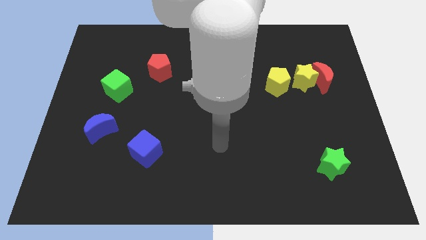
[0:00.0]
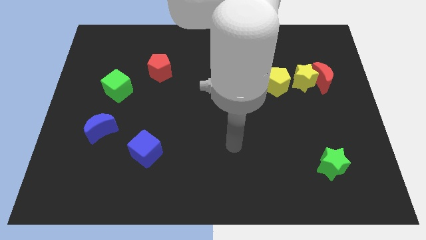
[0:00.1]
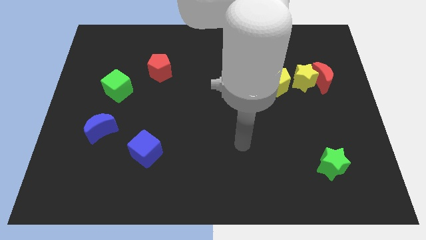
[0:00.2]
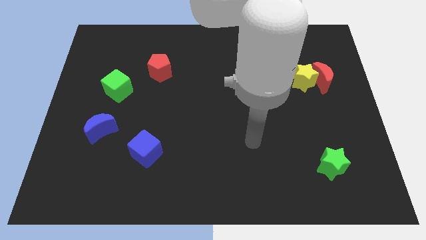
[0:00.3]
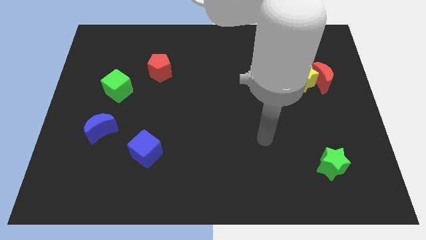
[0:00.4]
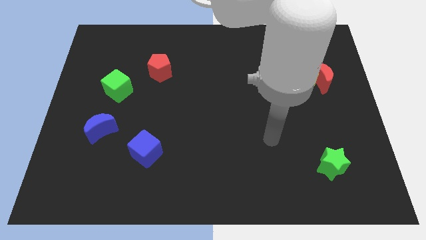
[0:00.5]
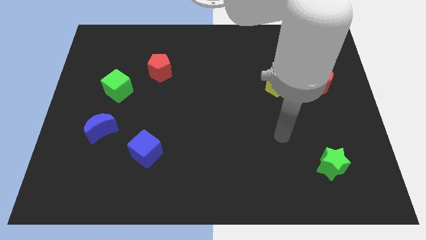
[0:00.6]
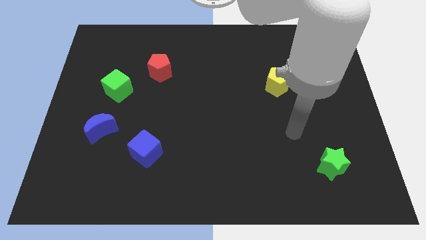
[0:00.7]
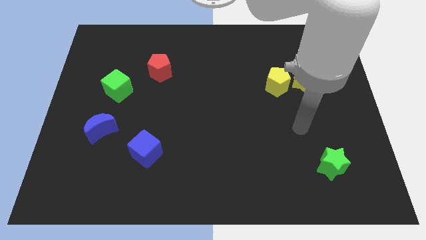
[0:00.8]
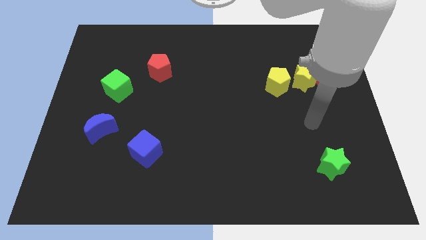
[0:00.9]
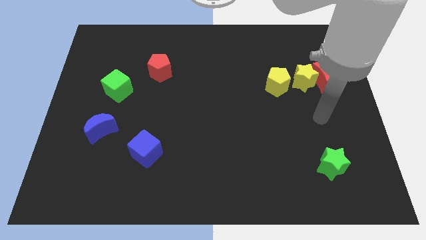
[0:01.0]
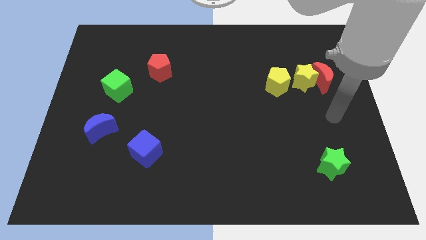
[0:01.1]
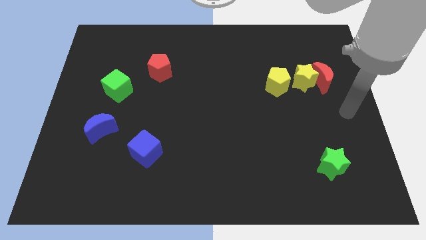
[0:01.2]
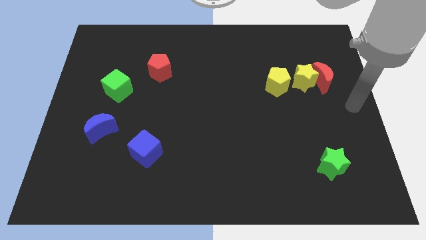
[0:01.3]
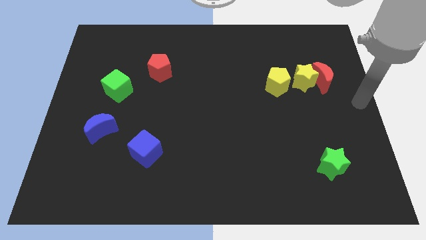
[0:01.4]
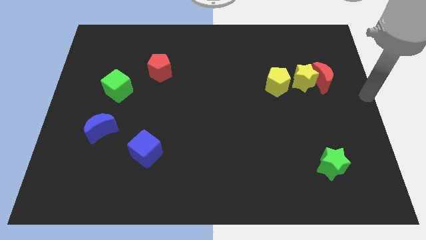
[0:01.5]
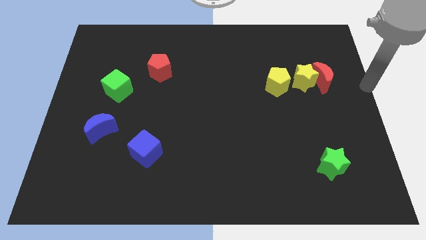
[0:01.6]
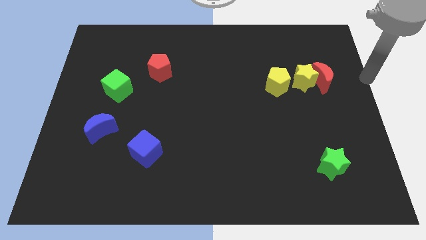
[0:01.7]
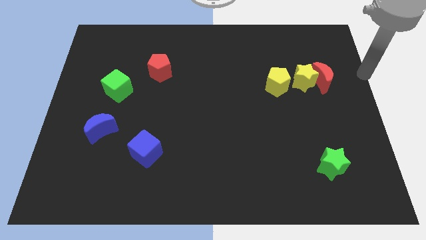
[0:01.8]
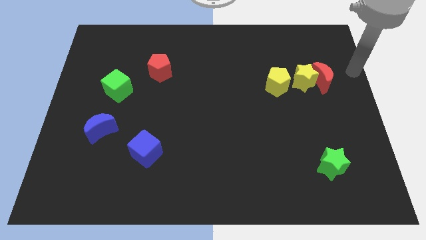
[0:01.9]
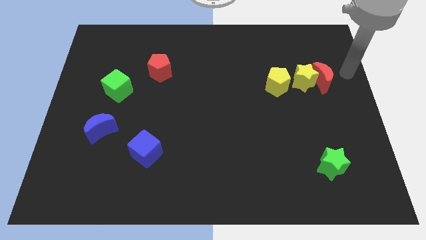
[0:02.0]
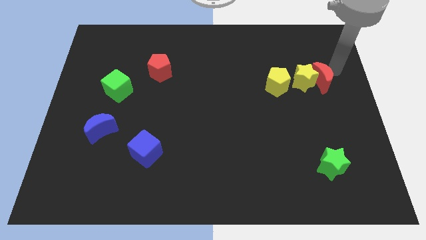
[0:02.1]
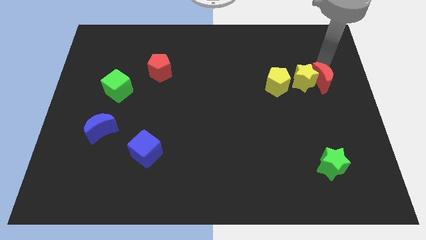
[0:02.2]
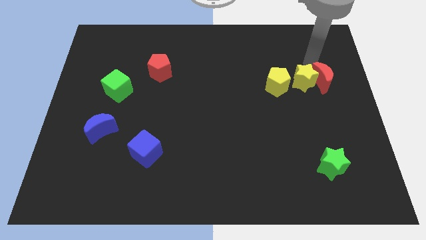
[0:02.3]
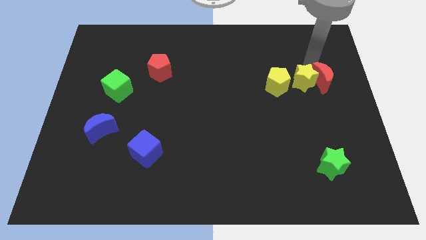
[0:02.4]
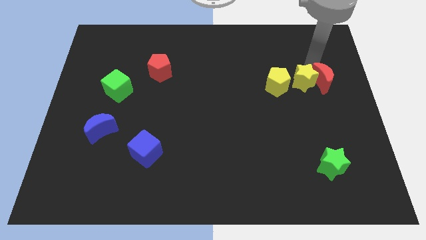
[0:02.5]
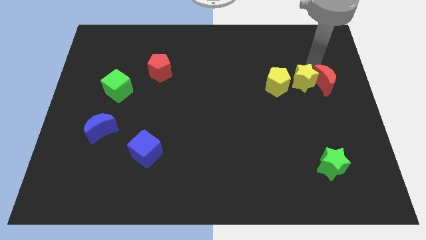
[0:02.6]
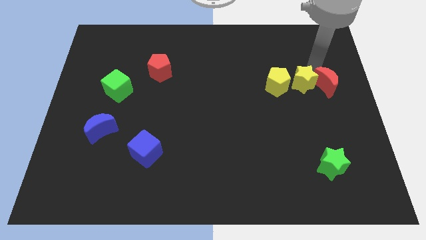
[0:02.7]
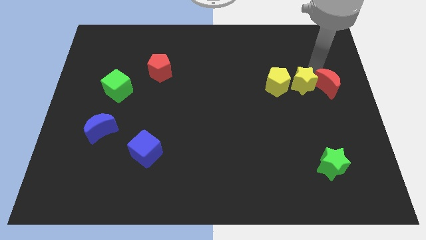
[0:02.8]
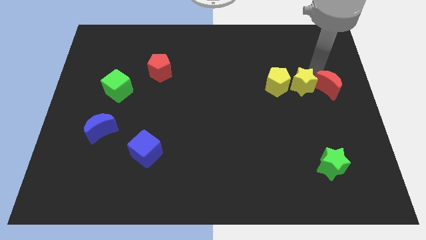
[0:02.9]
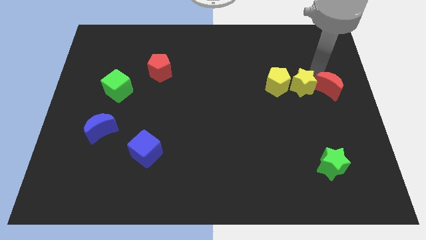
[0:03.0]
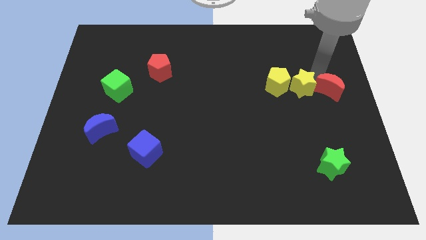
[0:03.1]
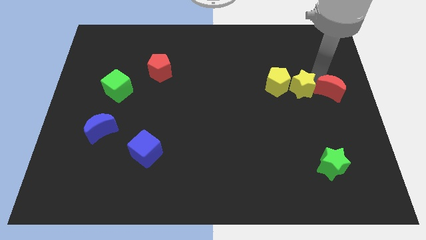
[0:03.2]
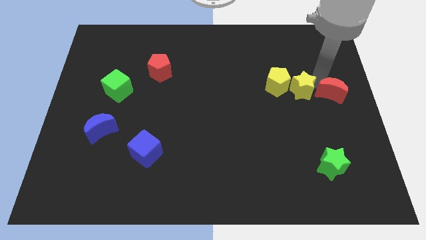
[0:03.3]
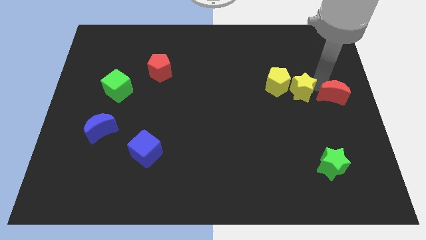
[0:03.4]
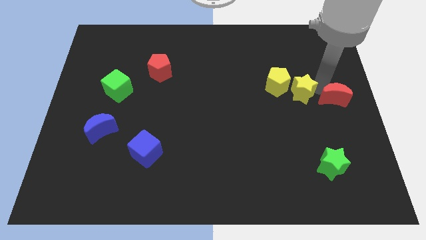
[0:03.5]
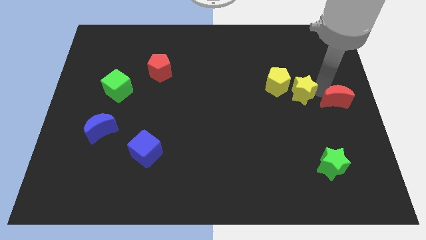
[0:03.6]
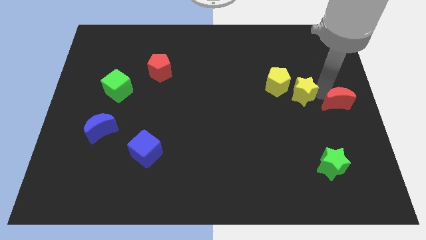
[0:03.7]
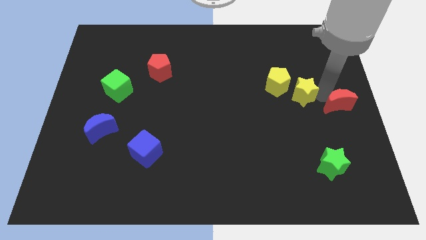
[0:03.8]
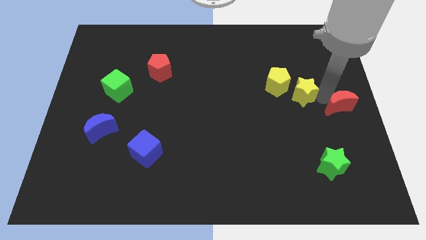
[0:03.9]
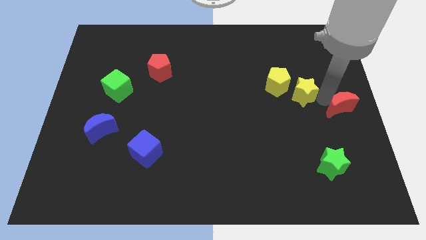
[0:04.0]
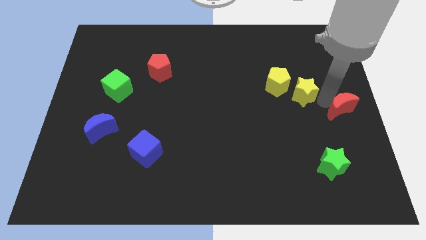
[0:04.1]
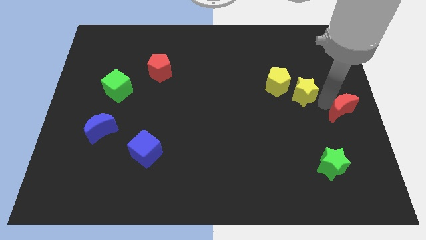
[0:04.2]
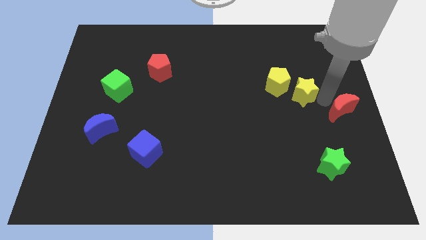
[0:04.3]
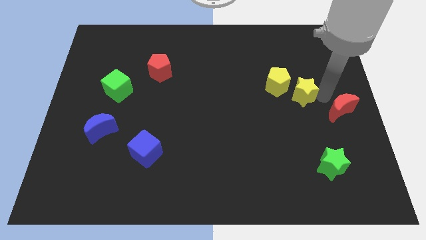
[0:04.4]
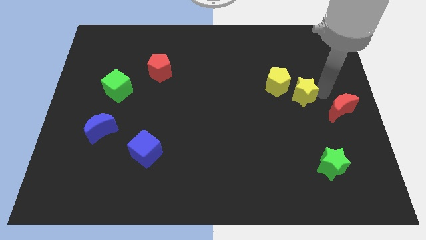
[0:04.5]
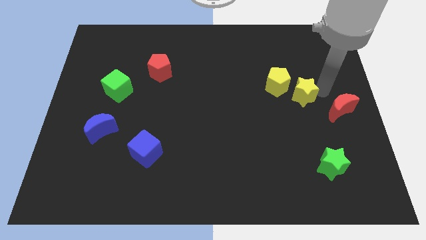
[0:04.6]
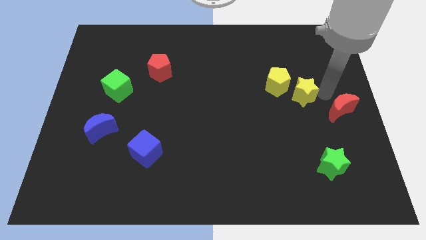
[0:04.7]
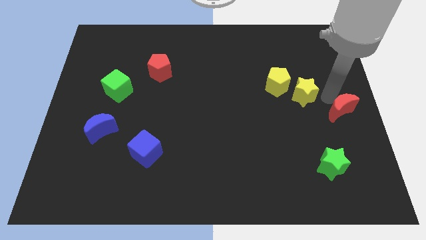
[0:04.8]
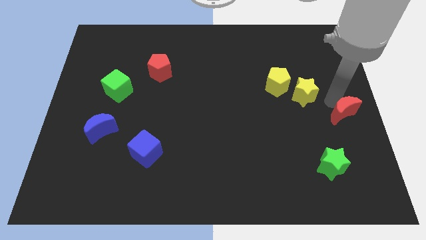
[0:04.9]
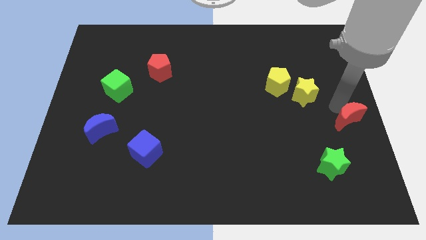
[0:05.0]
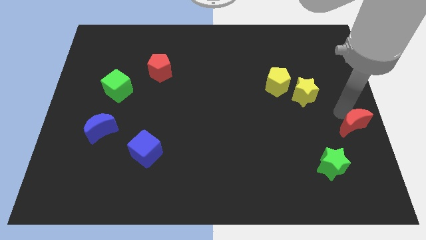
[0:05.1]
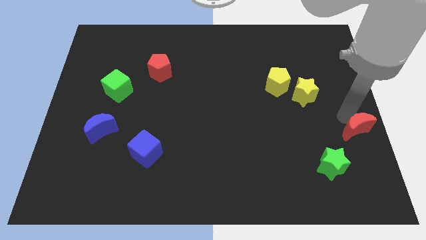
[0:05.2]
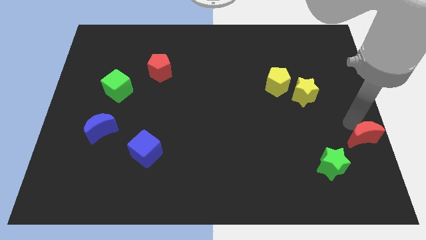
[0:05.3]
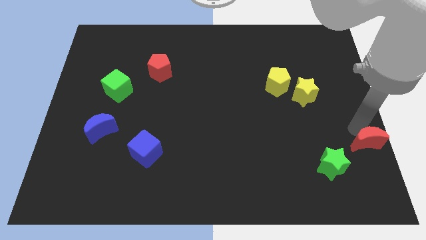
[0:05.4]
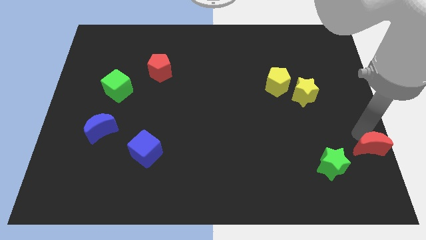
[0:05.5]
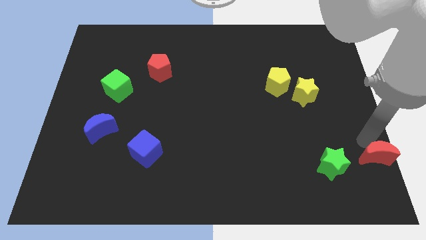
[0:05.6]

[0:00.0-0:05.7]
slide the red moon to the bottom right of the board

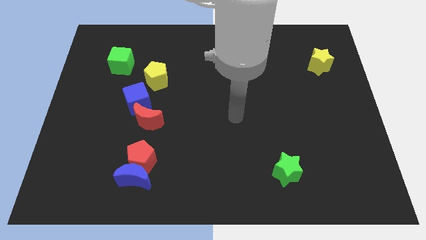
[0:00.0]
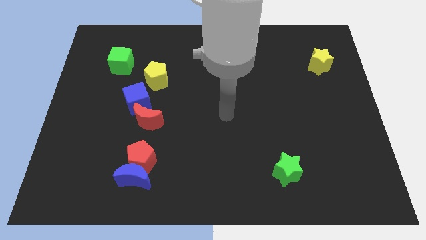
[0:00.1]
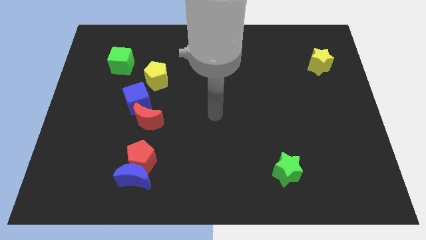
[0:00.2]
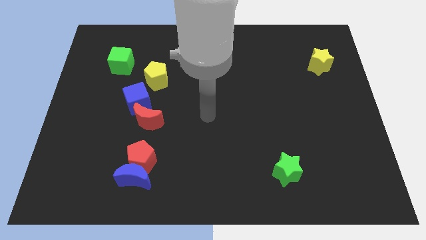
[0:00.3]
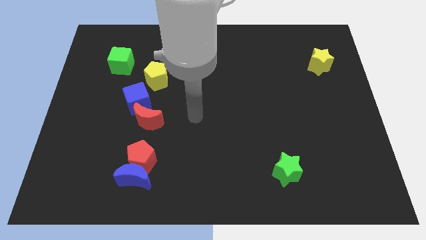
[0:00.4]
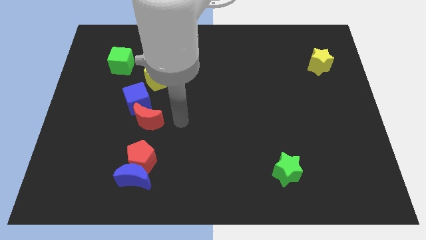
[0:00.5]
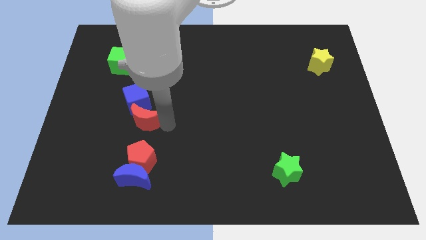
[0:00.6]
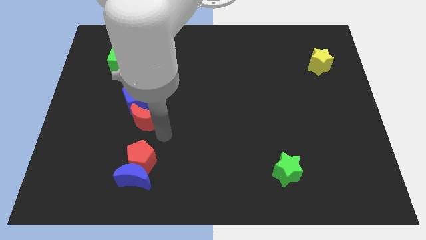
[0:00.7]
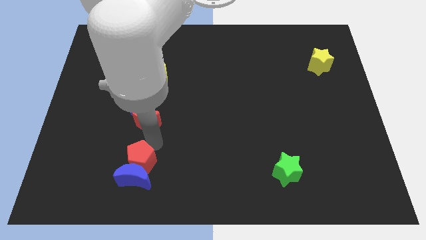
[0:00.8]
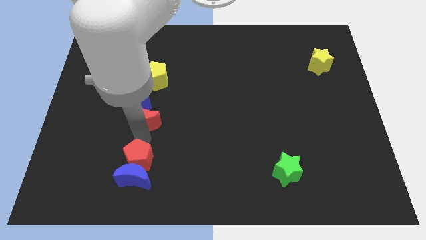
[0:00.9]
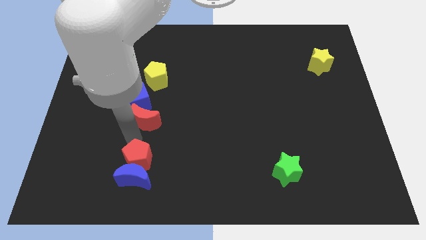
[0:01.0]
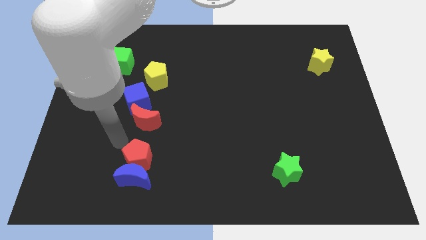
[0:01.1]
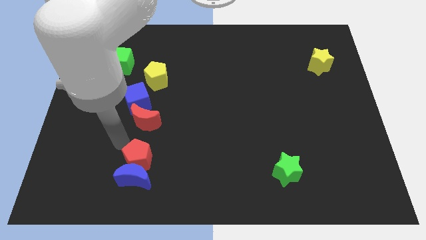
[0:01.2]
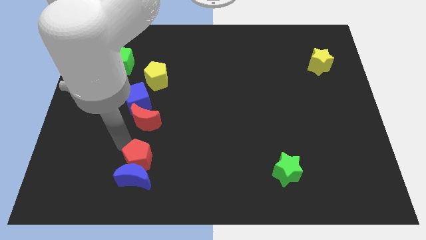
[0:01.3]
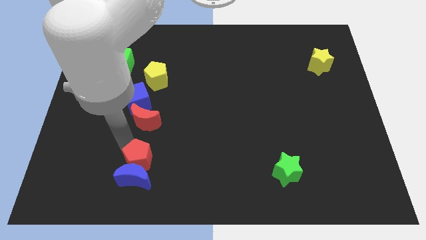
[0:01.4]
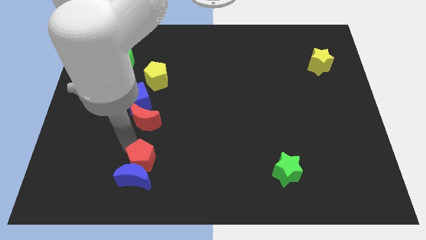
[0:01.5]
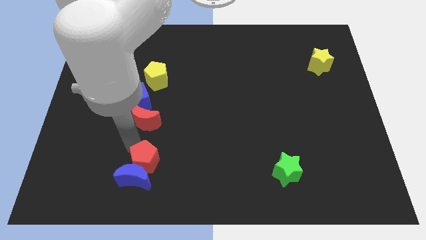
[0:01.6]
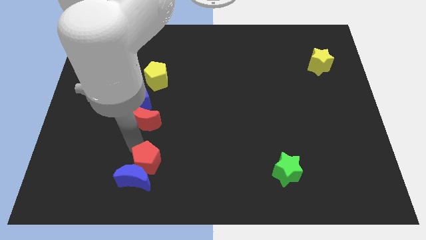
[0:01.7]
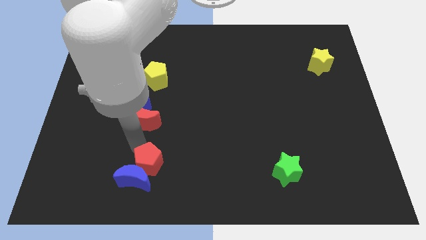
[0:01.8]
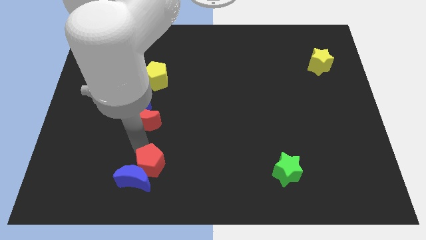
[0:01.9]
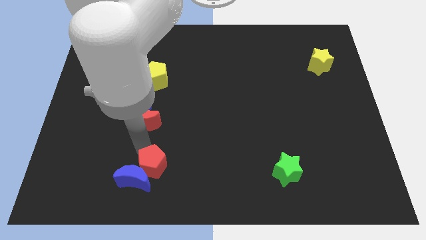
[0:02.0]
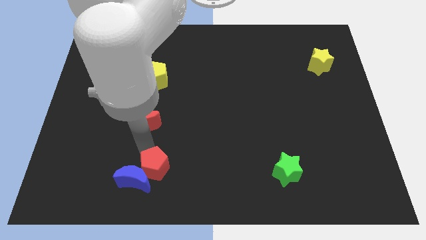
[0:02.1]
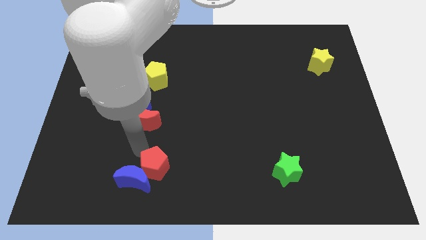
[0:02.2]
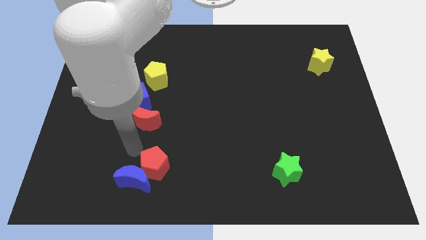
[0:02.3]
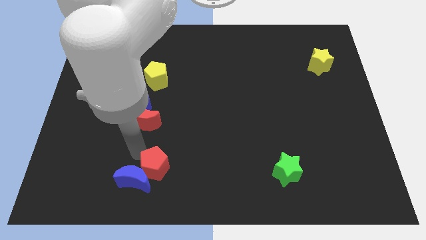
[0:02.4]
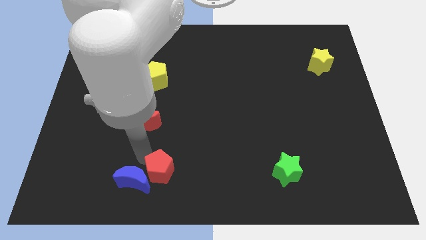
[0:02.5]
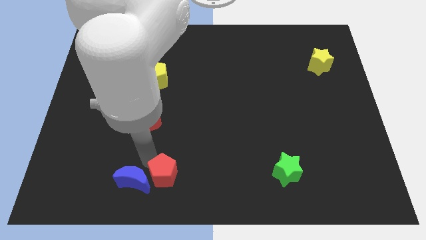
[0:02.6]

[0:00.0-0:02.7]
put the red pentagon to the bottom side
